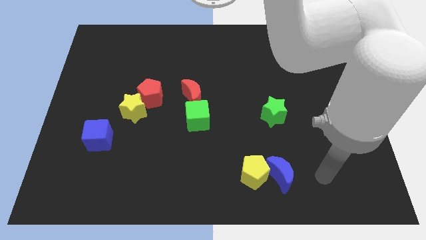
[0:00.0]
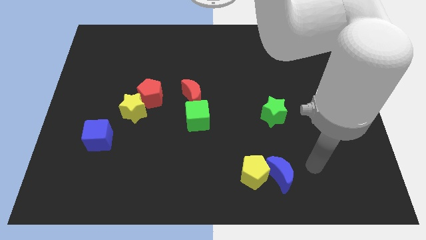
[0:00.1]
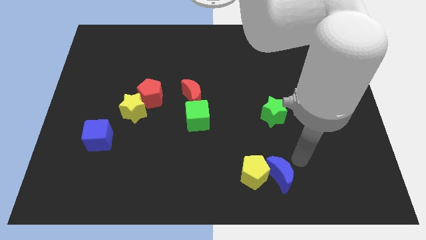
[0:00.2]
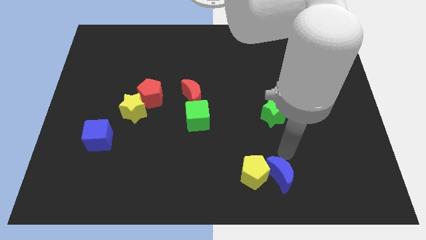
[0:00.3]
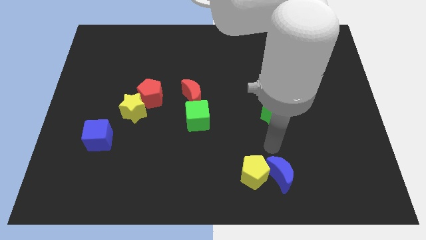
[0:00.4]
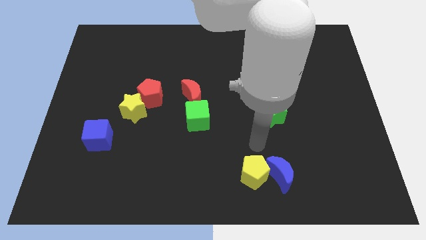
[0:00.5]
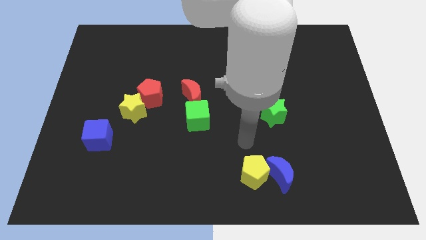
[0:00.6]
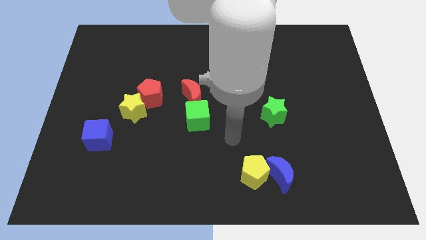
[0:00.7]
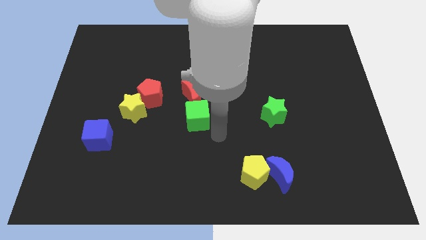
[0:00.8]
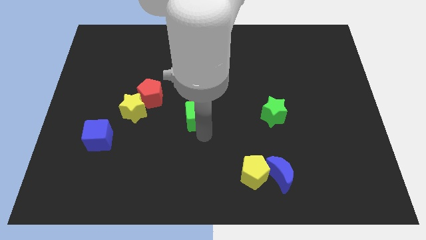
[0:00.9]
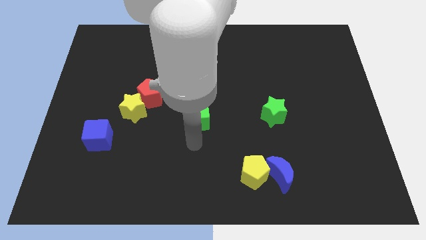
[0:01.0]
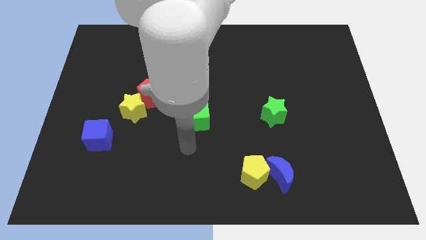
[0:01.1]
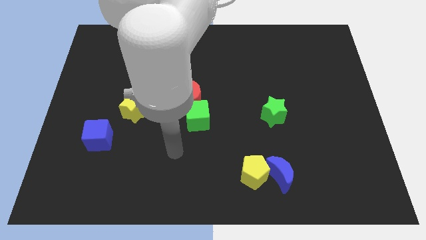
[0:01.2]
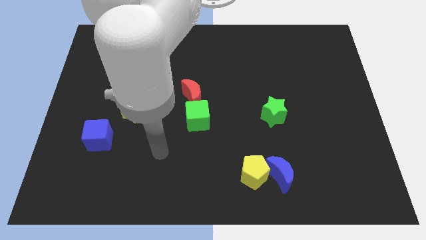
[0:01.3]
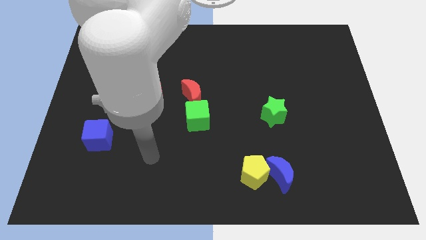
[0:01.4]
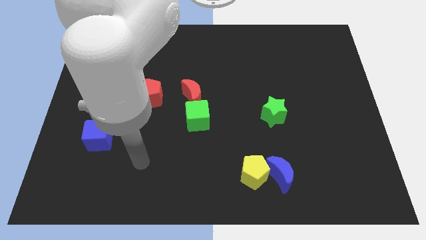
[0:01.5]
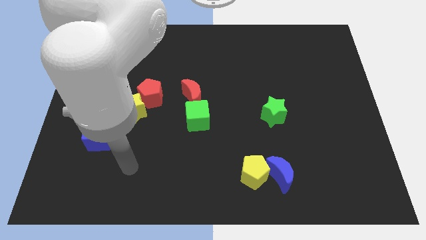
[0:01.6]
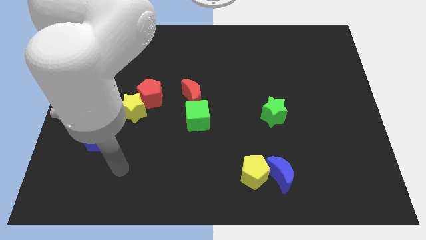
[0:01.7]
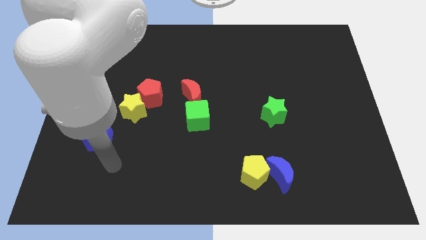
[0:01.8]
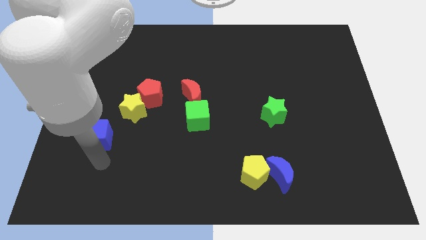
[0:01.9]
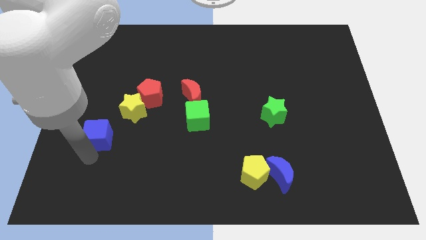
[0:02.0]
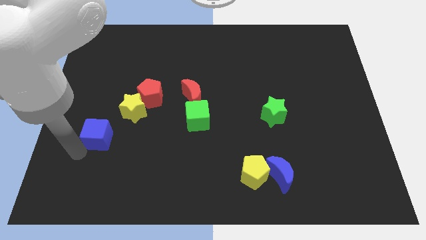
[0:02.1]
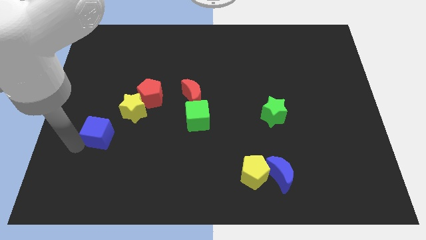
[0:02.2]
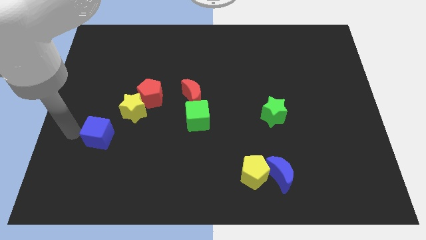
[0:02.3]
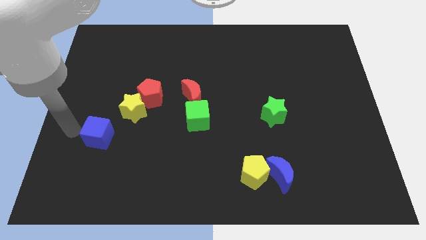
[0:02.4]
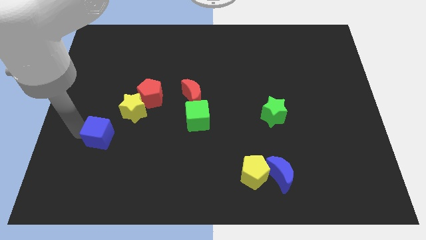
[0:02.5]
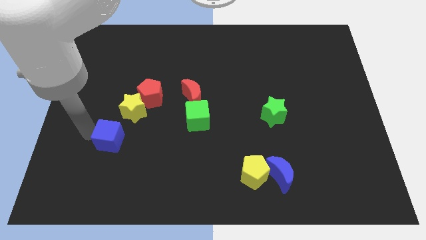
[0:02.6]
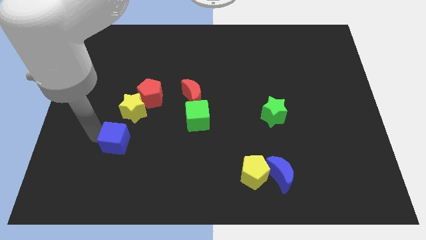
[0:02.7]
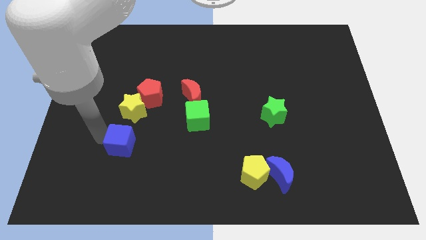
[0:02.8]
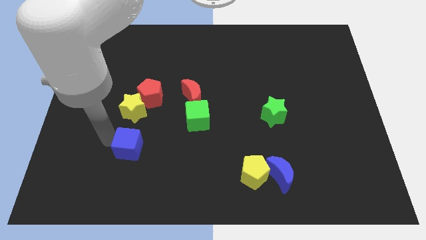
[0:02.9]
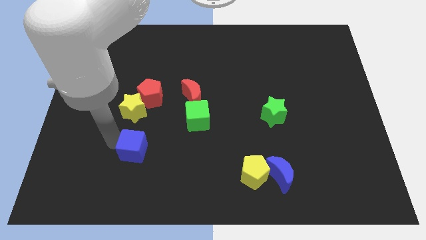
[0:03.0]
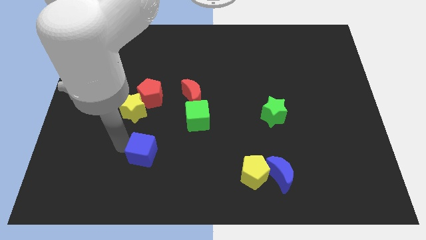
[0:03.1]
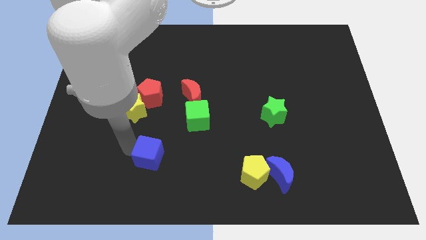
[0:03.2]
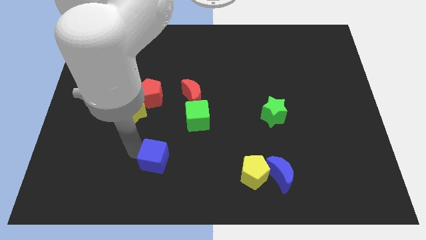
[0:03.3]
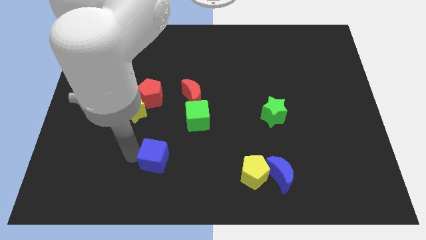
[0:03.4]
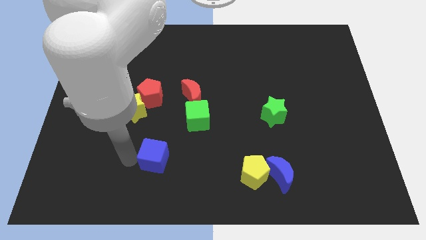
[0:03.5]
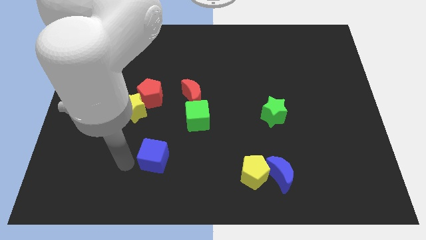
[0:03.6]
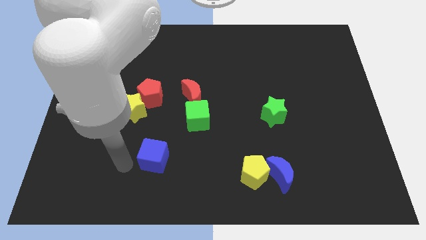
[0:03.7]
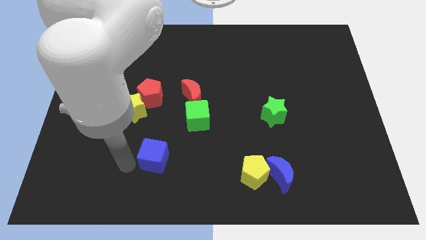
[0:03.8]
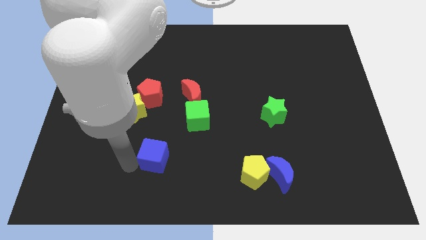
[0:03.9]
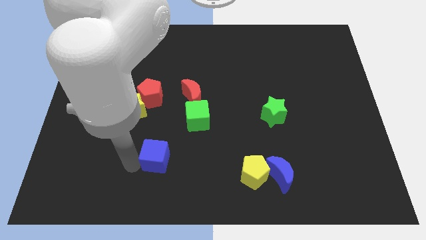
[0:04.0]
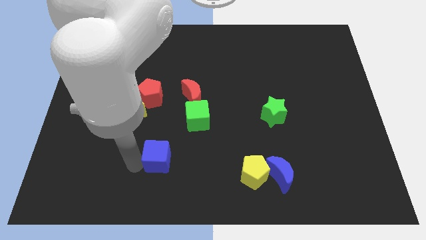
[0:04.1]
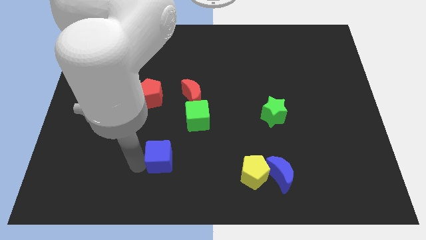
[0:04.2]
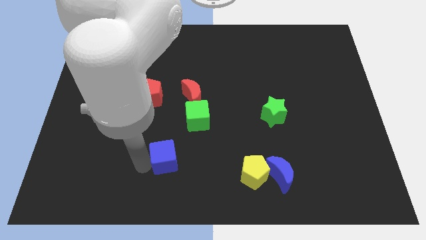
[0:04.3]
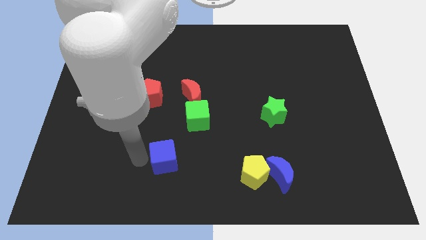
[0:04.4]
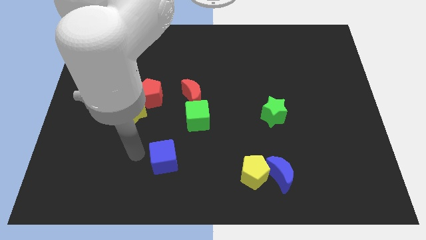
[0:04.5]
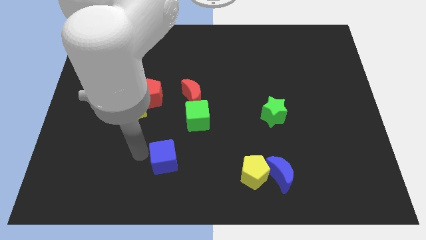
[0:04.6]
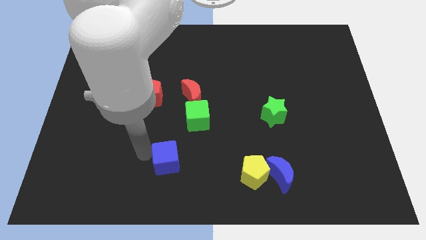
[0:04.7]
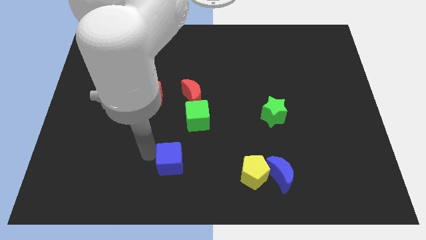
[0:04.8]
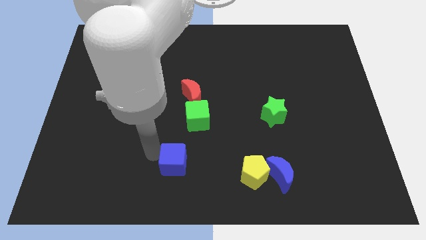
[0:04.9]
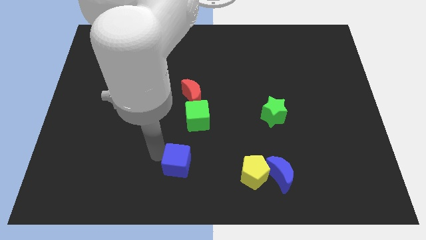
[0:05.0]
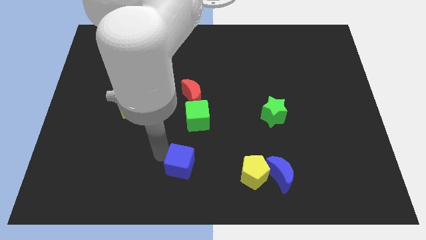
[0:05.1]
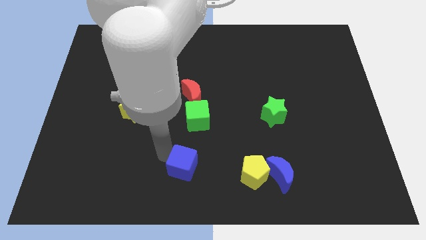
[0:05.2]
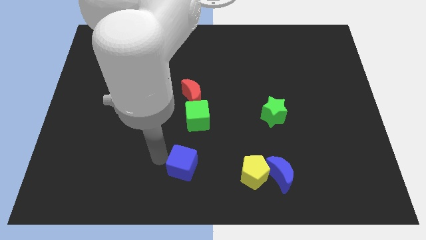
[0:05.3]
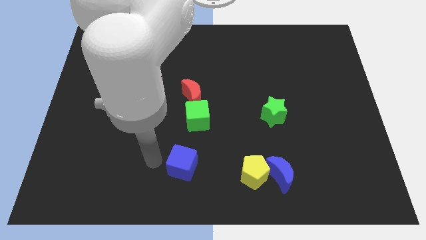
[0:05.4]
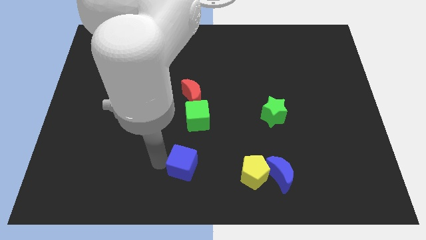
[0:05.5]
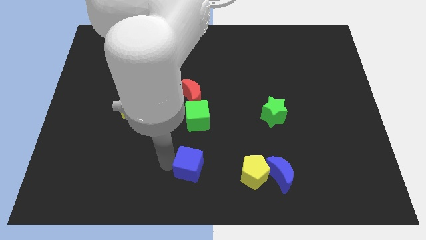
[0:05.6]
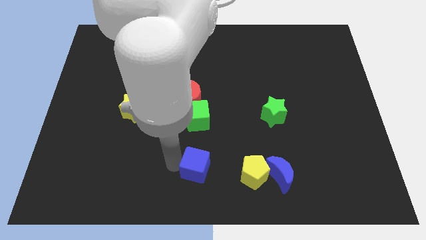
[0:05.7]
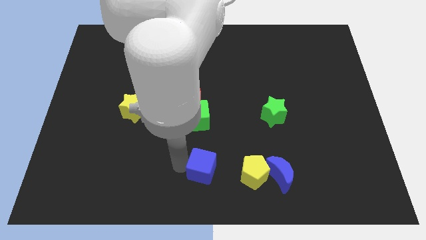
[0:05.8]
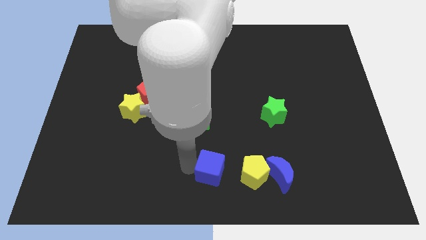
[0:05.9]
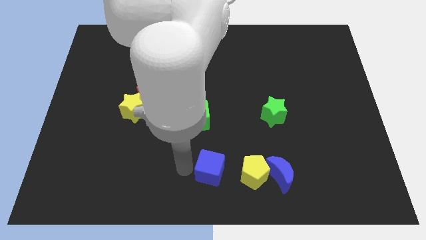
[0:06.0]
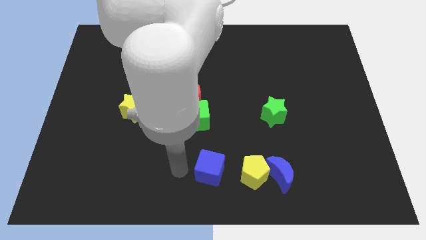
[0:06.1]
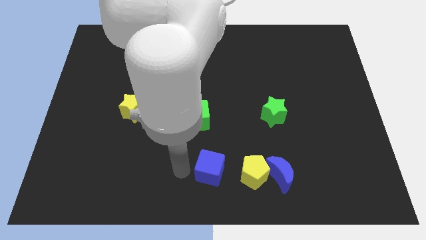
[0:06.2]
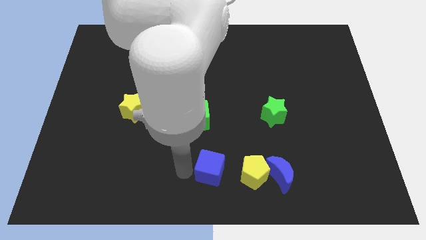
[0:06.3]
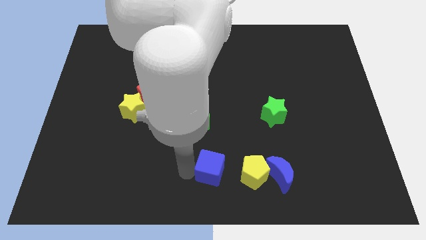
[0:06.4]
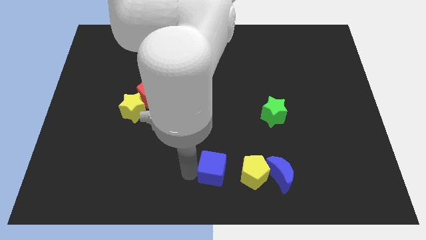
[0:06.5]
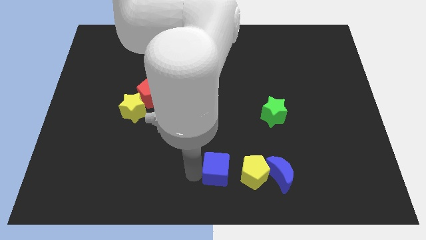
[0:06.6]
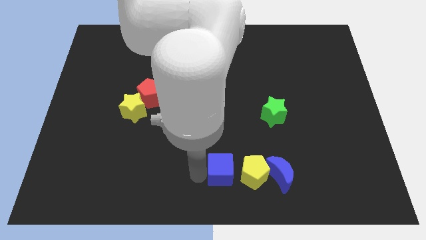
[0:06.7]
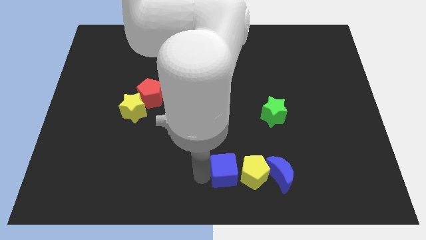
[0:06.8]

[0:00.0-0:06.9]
move the blue cube to the yellow pentagon

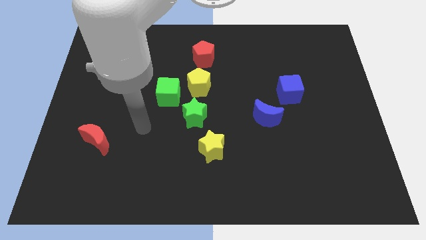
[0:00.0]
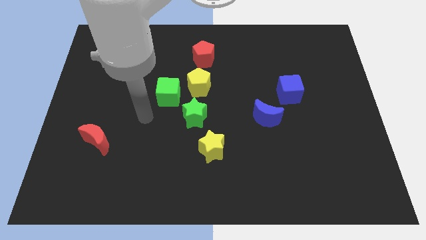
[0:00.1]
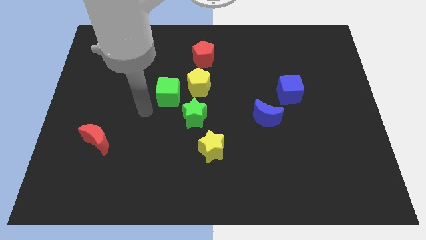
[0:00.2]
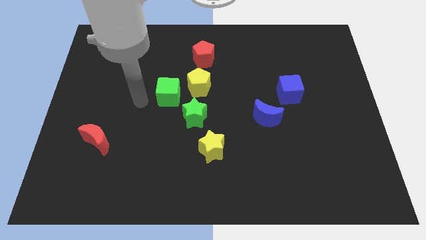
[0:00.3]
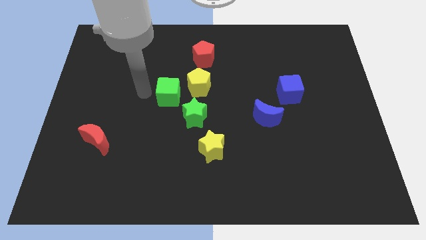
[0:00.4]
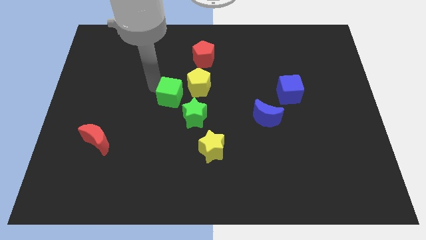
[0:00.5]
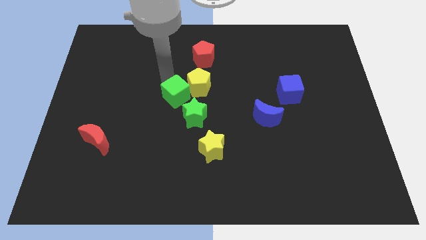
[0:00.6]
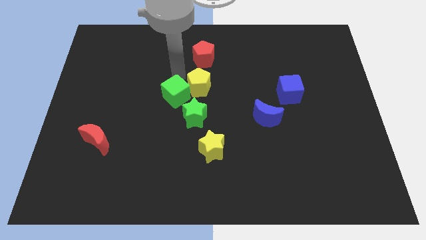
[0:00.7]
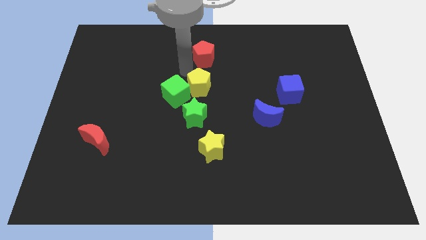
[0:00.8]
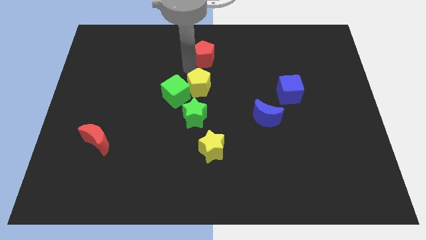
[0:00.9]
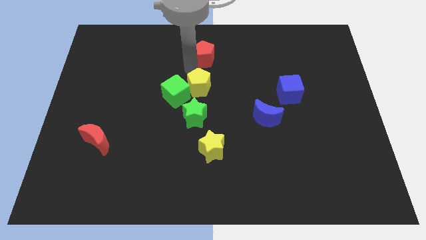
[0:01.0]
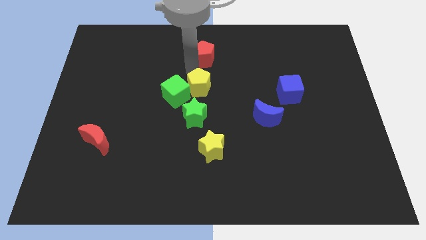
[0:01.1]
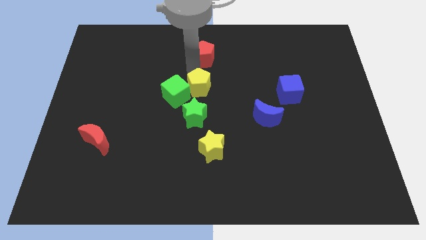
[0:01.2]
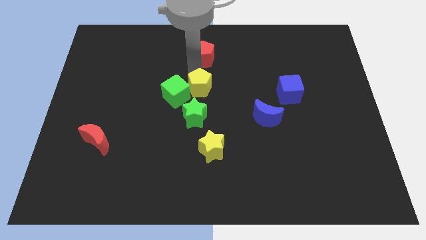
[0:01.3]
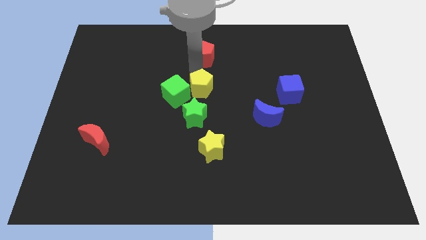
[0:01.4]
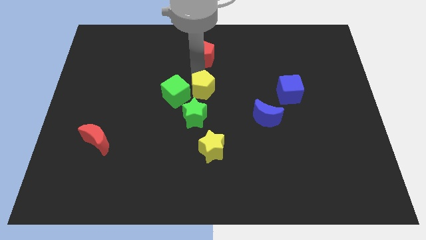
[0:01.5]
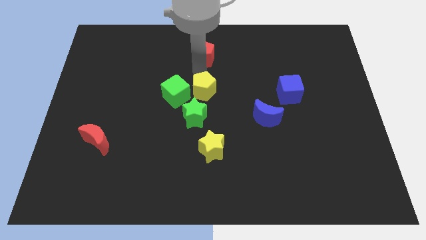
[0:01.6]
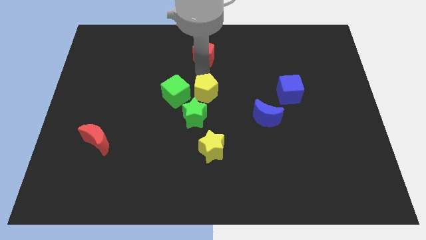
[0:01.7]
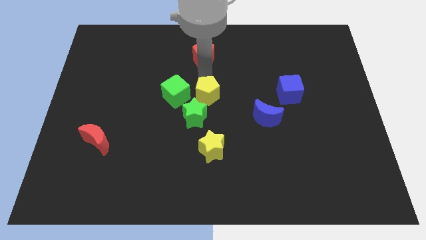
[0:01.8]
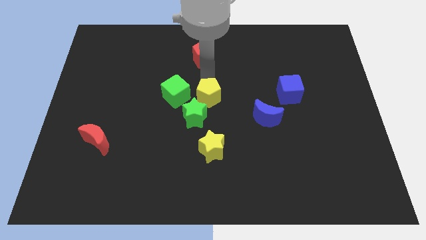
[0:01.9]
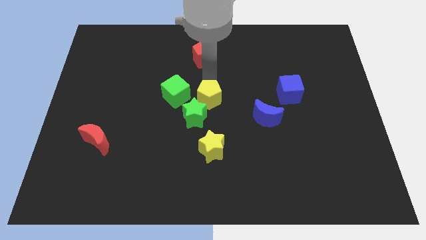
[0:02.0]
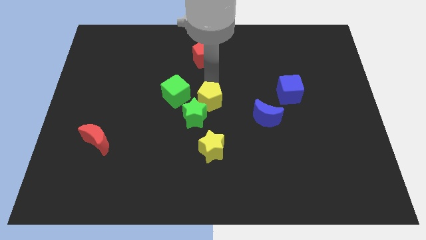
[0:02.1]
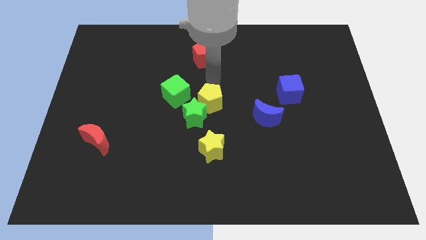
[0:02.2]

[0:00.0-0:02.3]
put the yellow pentagon towards the green star
